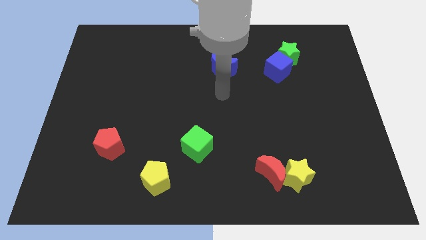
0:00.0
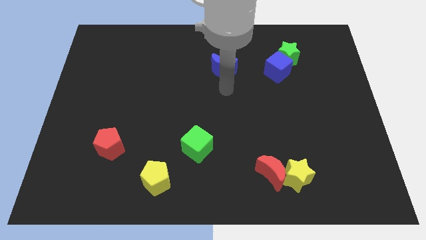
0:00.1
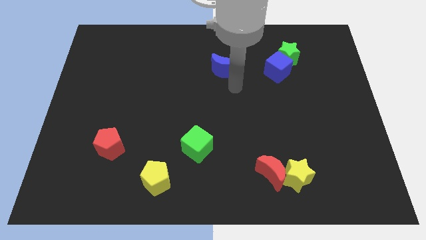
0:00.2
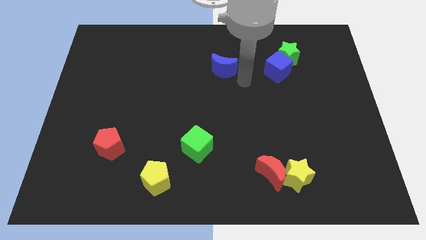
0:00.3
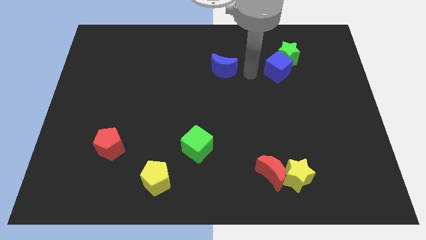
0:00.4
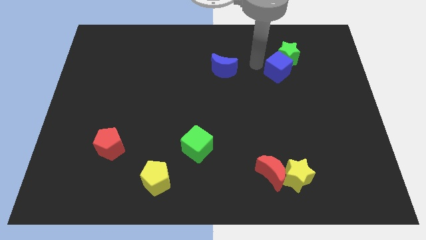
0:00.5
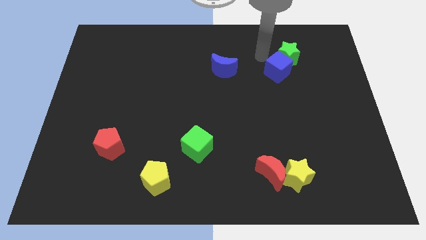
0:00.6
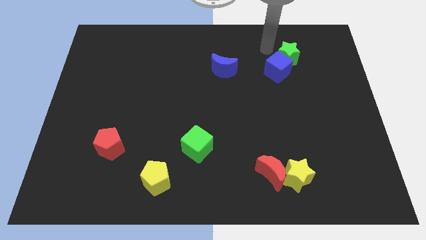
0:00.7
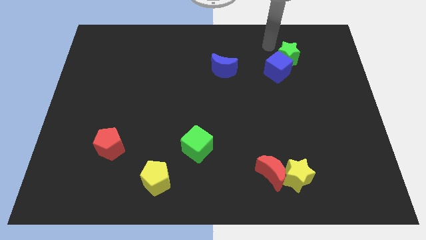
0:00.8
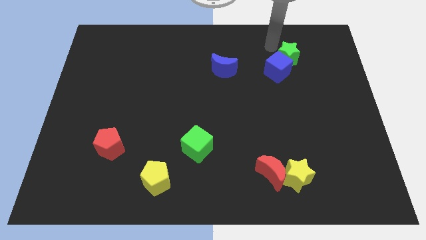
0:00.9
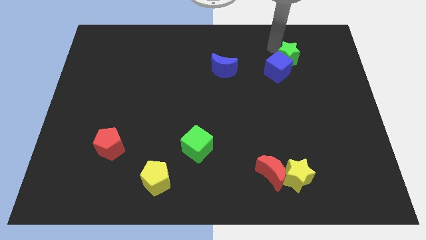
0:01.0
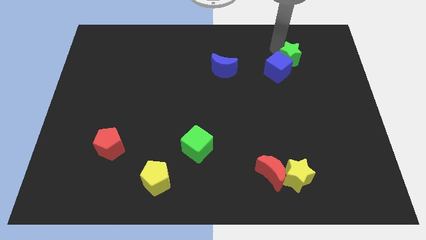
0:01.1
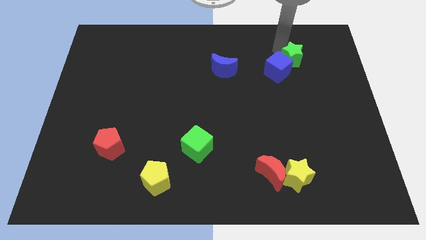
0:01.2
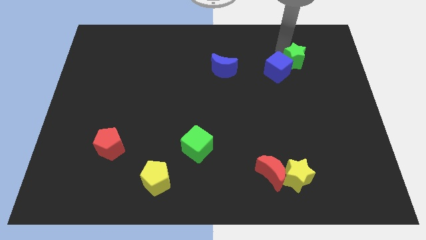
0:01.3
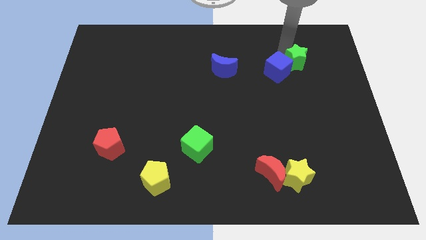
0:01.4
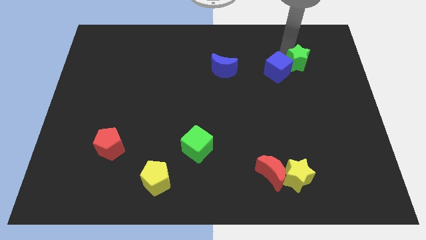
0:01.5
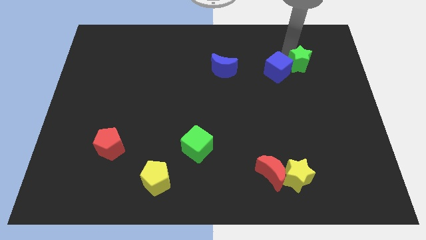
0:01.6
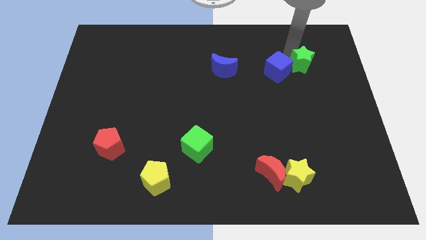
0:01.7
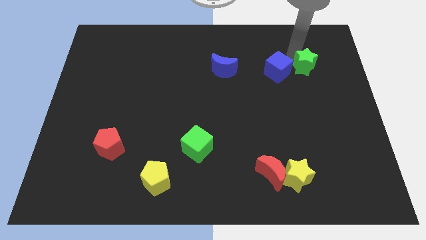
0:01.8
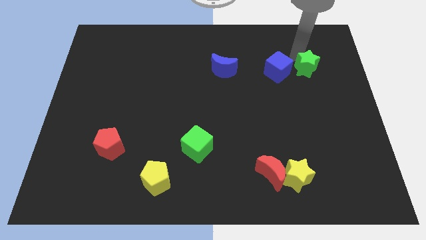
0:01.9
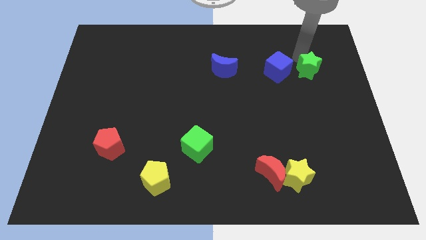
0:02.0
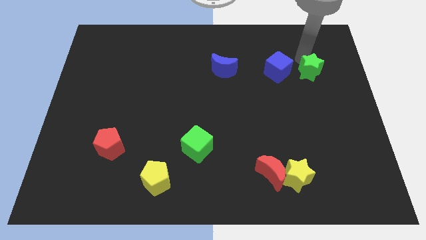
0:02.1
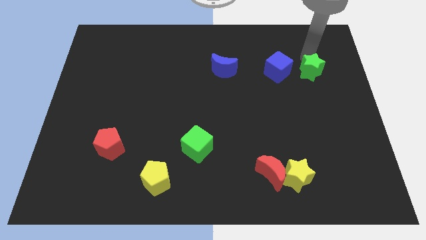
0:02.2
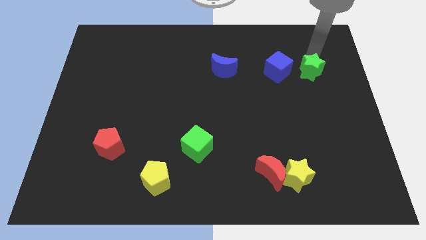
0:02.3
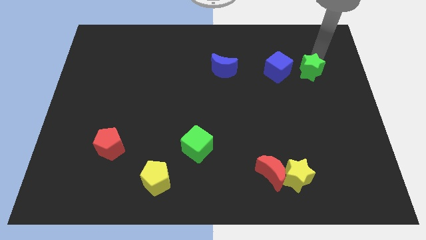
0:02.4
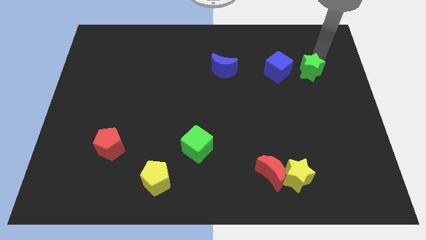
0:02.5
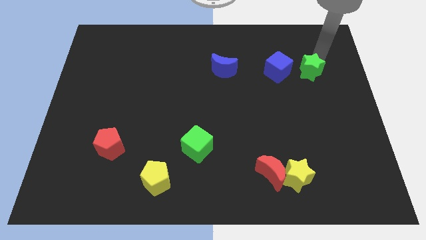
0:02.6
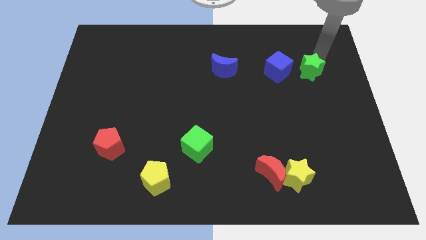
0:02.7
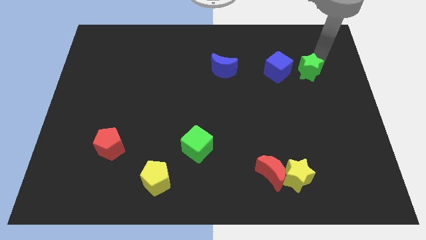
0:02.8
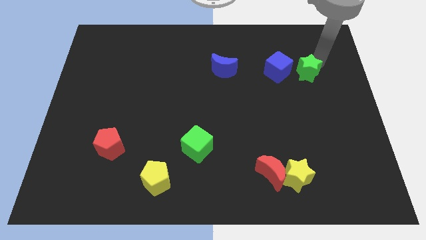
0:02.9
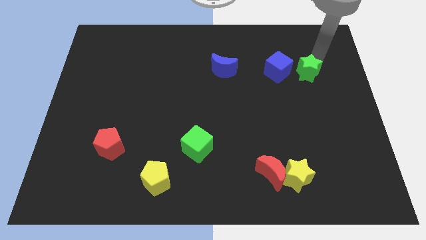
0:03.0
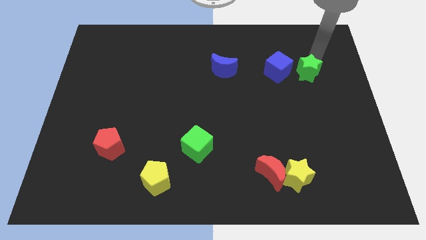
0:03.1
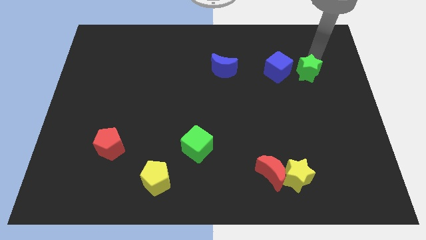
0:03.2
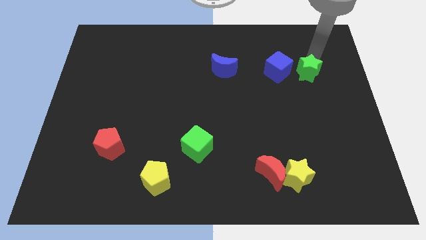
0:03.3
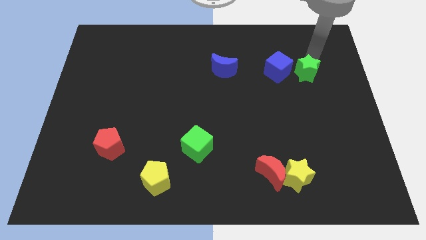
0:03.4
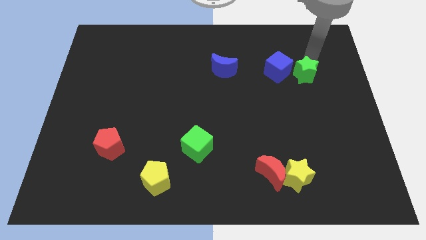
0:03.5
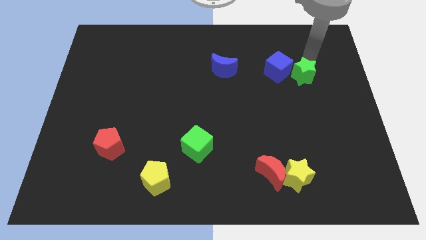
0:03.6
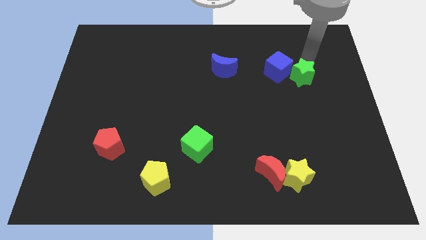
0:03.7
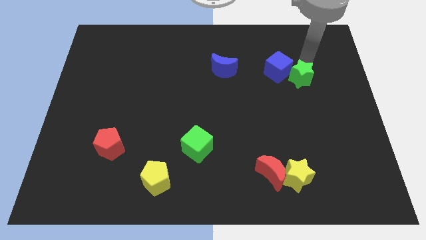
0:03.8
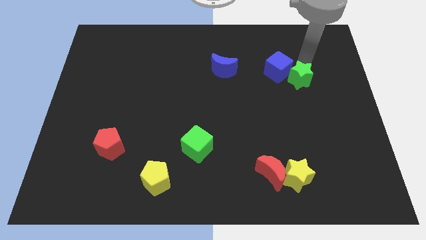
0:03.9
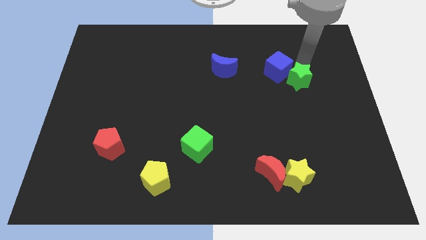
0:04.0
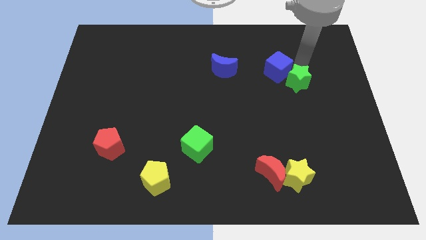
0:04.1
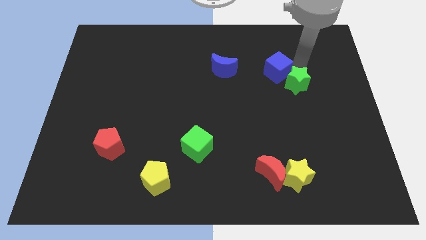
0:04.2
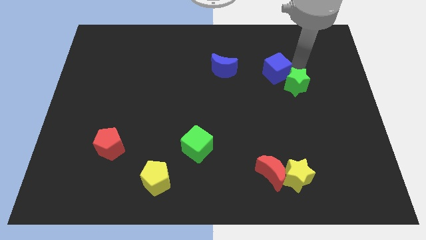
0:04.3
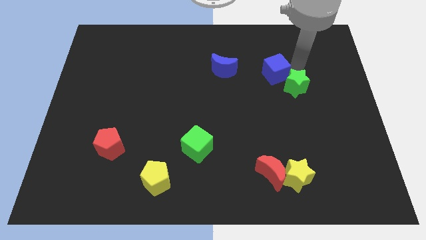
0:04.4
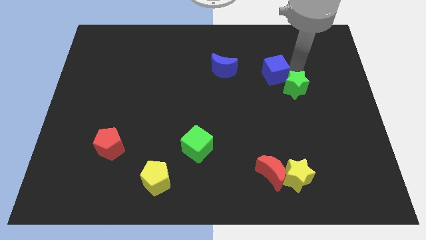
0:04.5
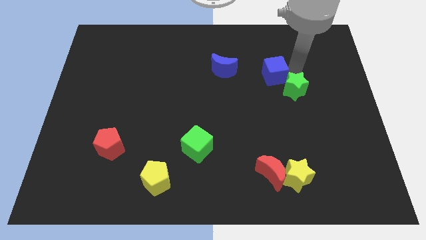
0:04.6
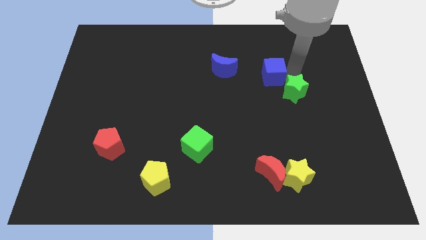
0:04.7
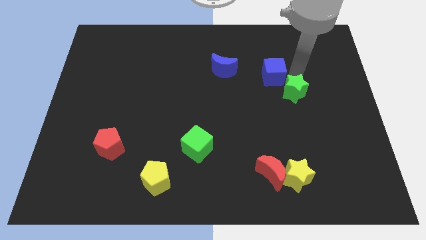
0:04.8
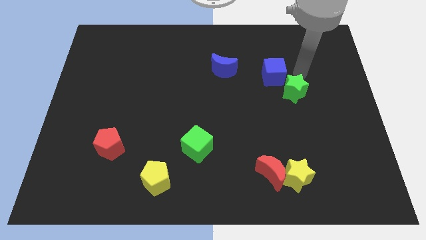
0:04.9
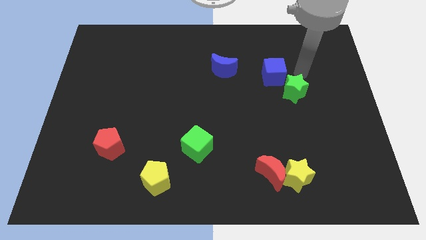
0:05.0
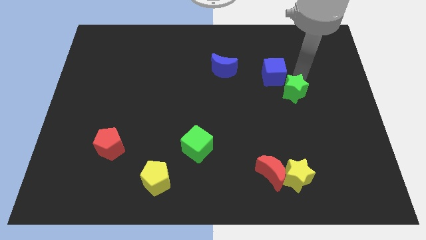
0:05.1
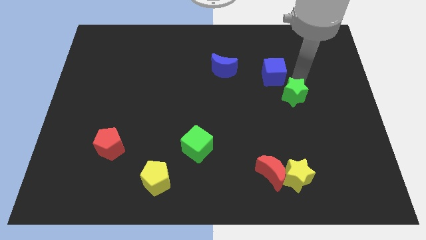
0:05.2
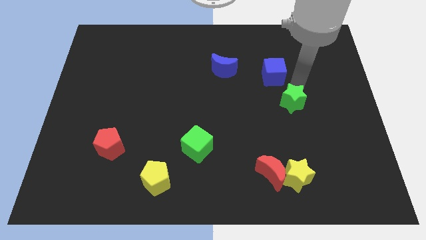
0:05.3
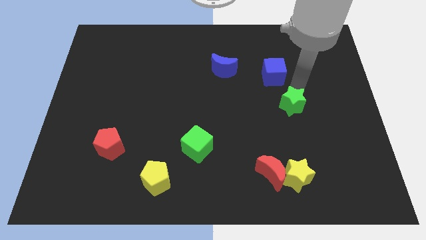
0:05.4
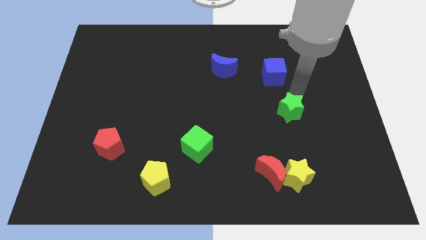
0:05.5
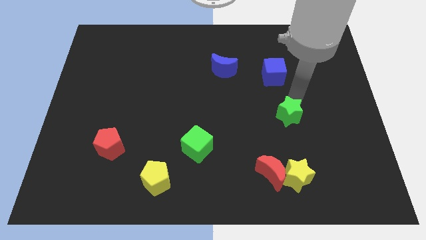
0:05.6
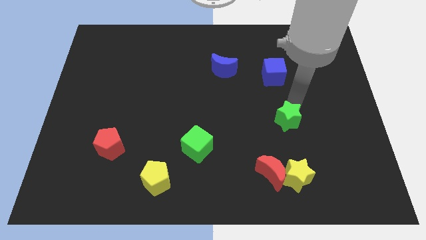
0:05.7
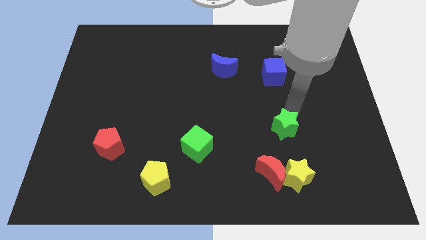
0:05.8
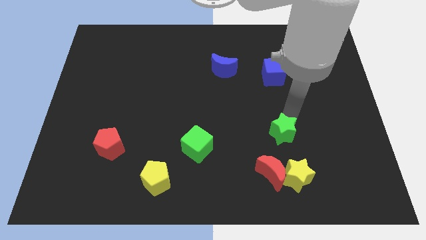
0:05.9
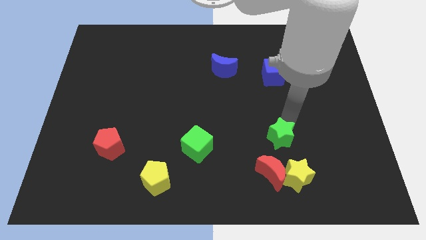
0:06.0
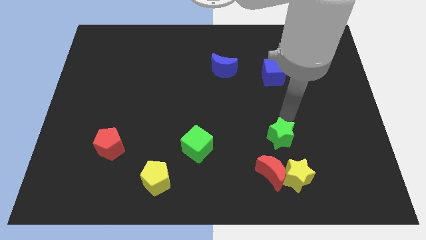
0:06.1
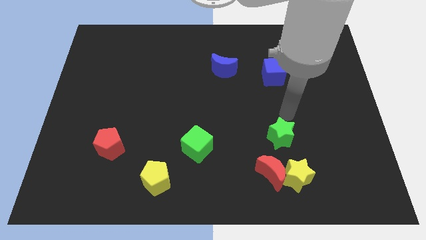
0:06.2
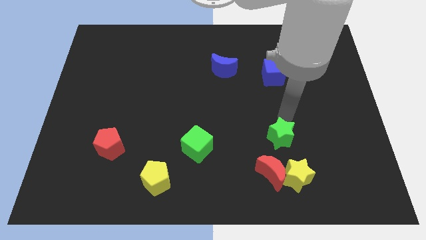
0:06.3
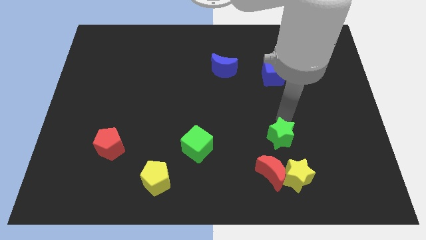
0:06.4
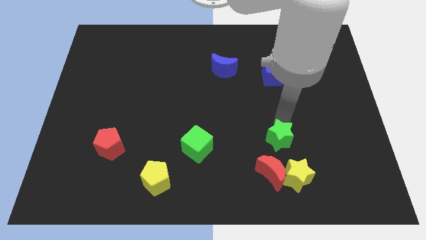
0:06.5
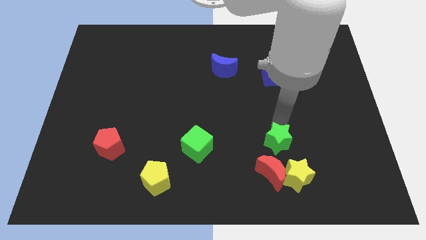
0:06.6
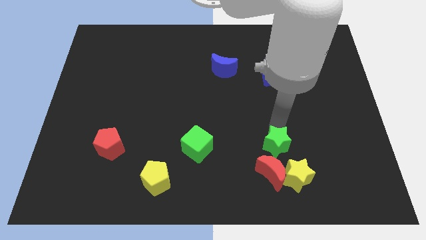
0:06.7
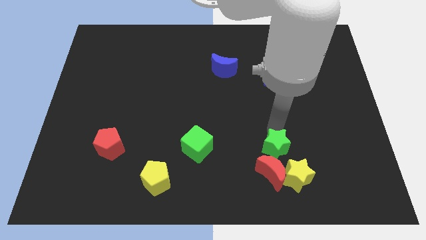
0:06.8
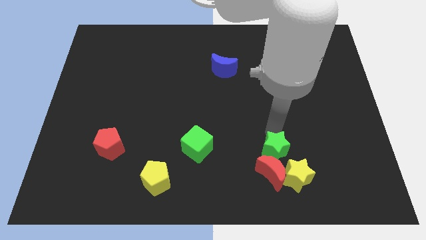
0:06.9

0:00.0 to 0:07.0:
move the green star to the red moon

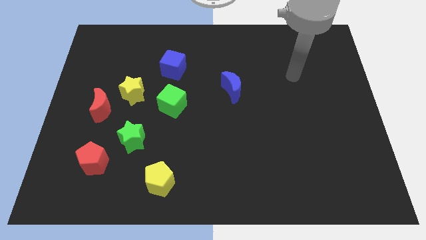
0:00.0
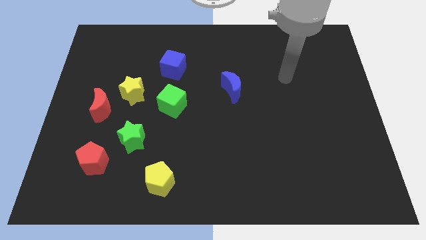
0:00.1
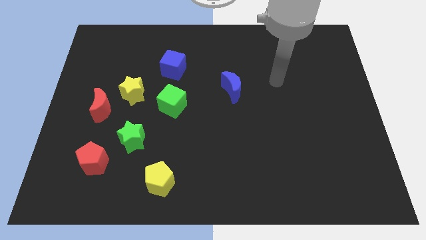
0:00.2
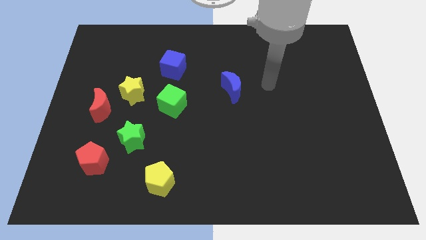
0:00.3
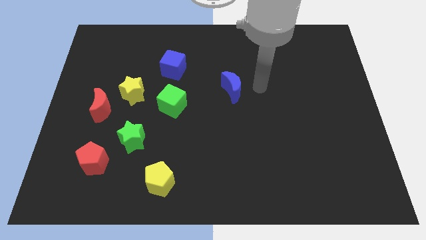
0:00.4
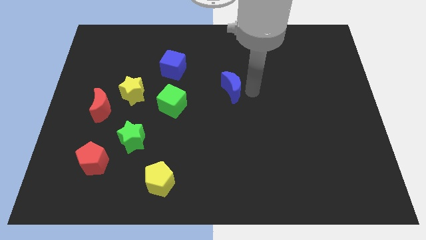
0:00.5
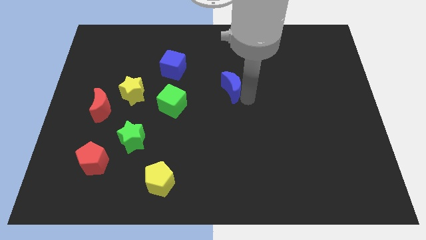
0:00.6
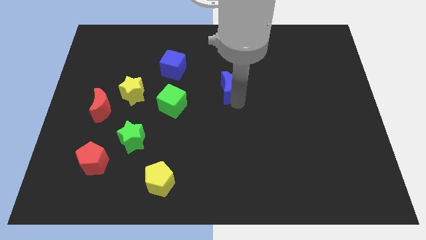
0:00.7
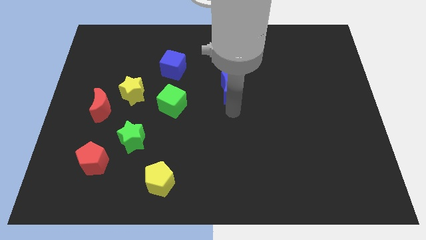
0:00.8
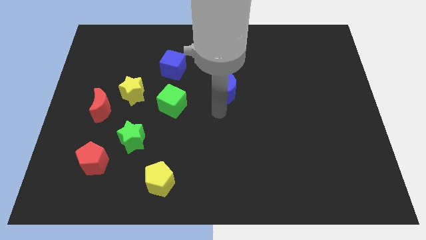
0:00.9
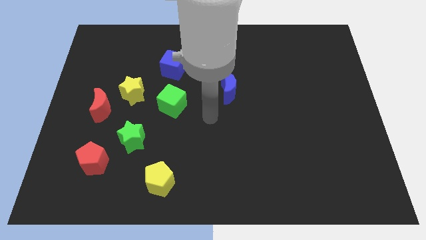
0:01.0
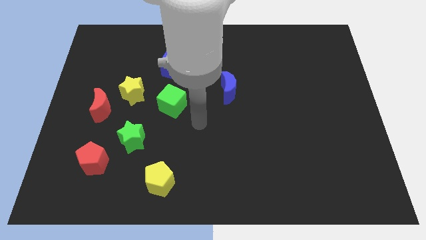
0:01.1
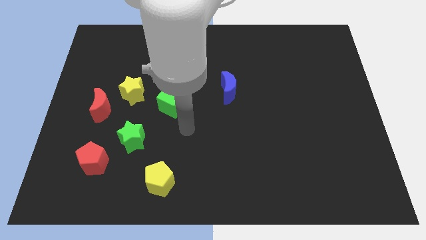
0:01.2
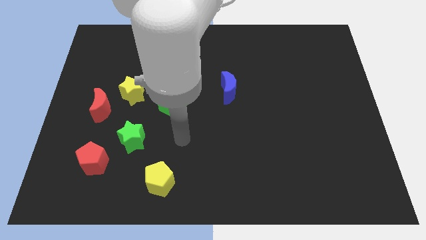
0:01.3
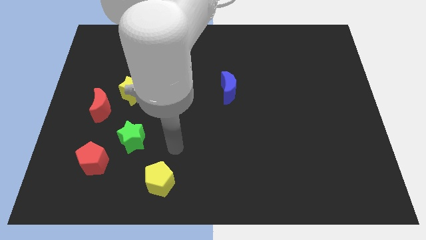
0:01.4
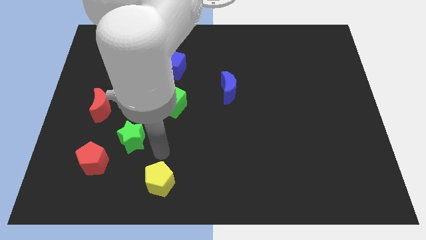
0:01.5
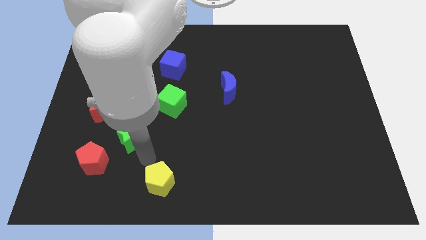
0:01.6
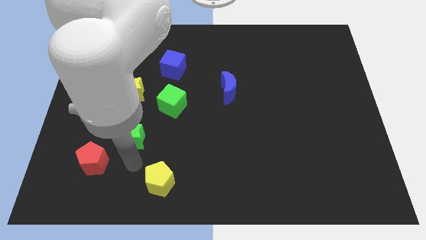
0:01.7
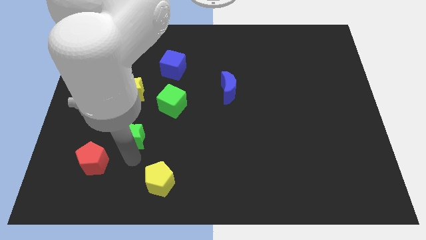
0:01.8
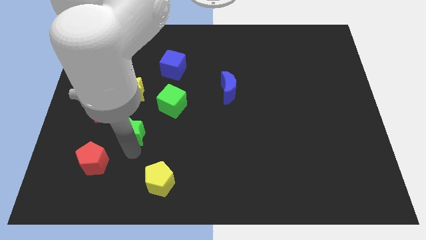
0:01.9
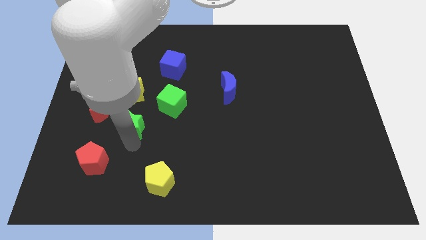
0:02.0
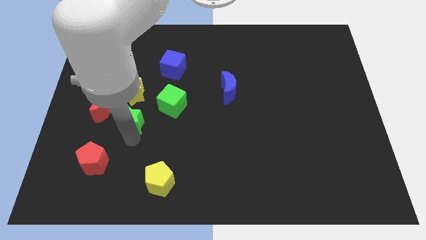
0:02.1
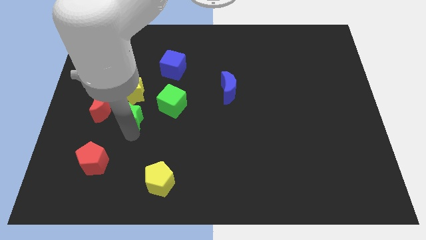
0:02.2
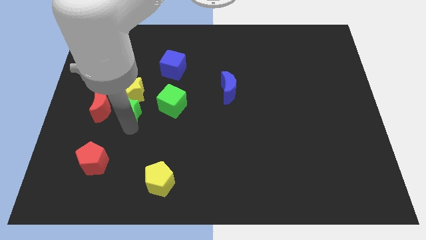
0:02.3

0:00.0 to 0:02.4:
push the green star to the yellow star
